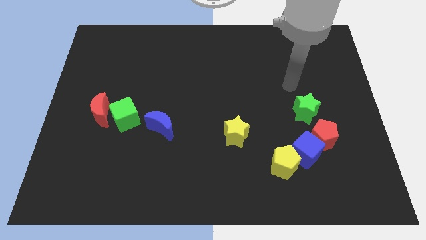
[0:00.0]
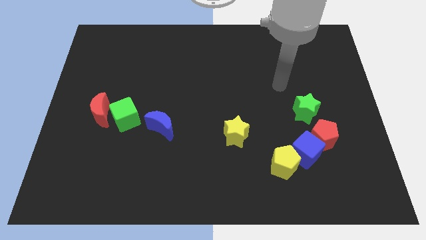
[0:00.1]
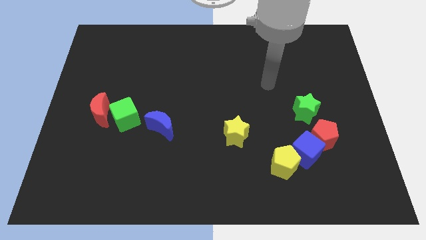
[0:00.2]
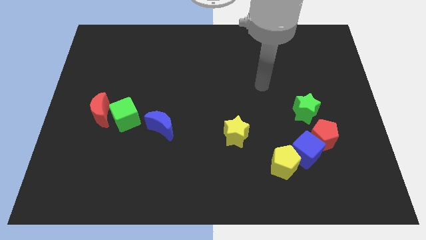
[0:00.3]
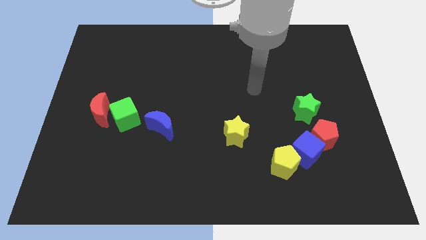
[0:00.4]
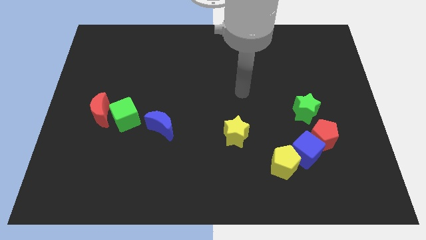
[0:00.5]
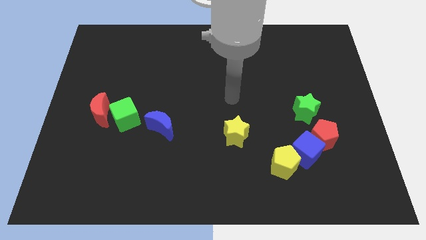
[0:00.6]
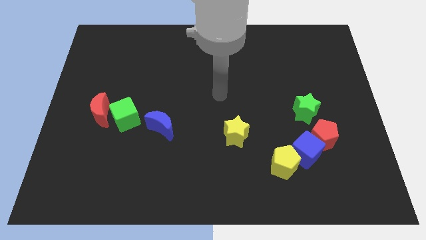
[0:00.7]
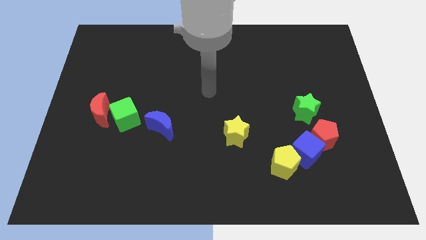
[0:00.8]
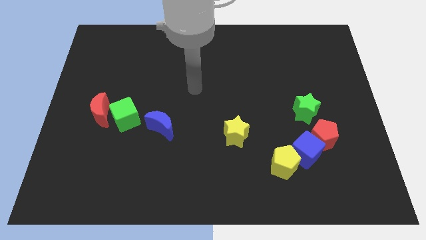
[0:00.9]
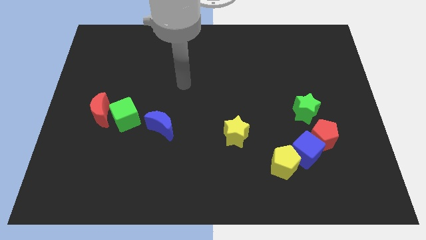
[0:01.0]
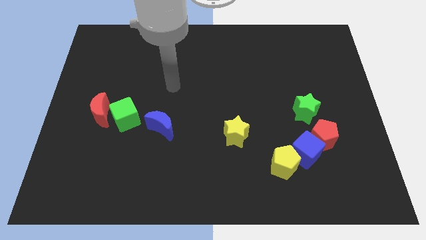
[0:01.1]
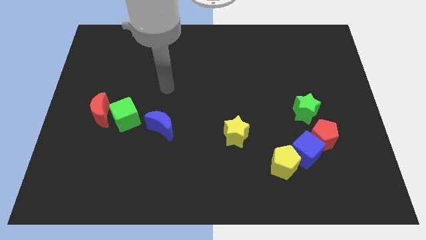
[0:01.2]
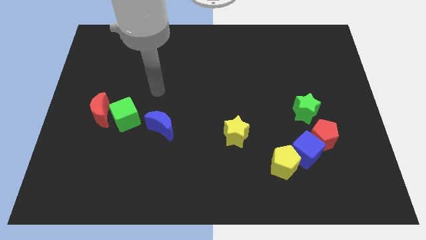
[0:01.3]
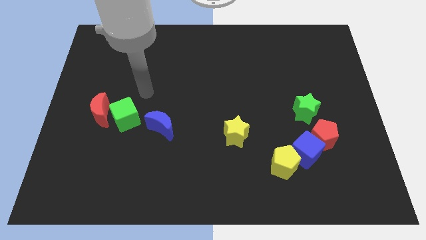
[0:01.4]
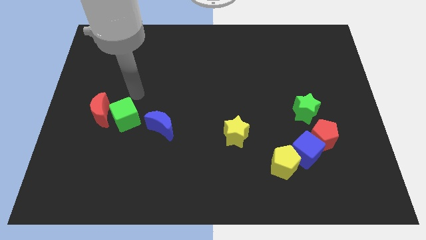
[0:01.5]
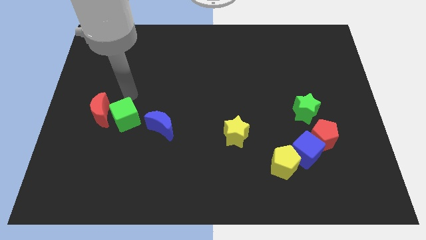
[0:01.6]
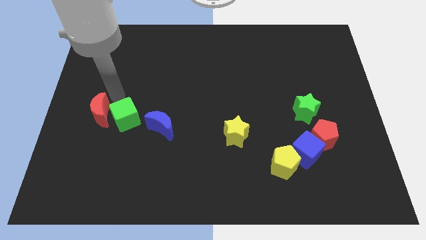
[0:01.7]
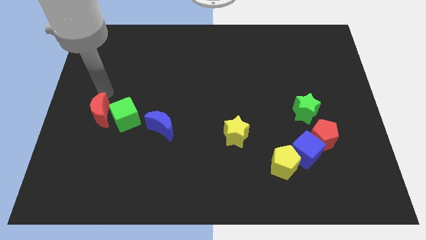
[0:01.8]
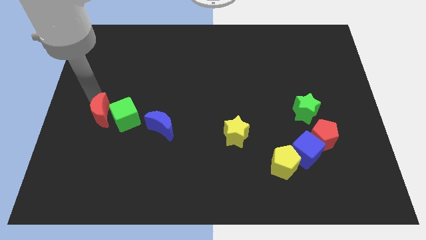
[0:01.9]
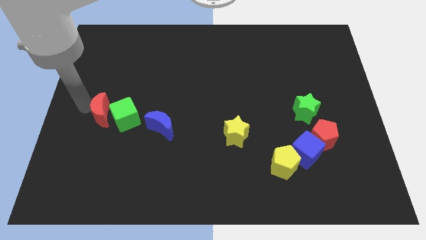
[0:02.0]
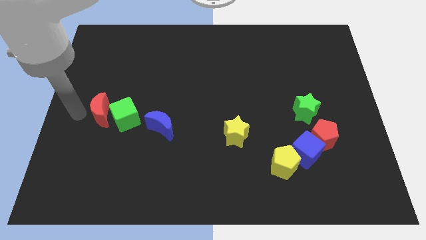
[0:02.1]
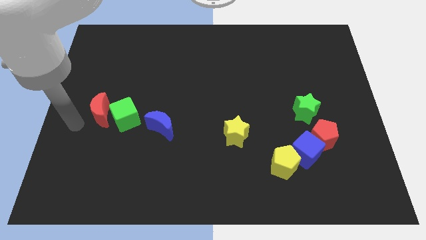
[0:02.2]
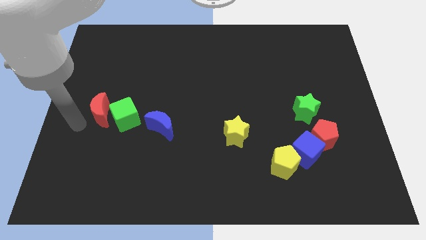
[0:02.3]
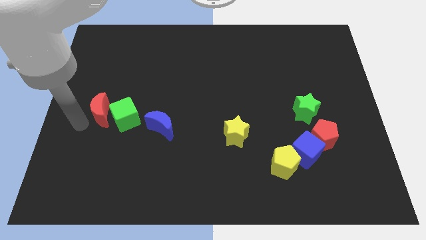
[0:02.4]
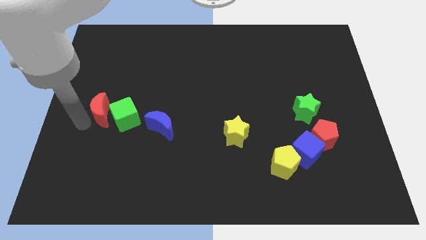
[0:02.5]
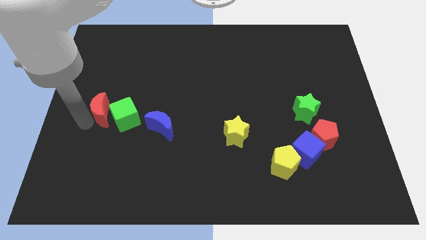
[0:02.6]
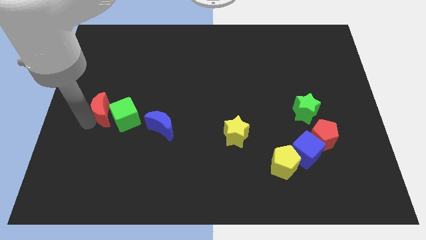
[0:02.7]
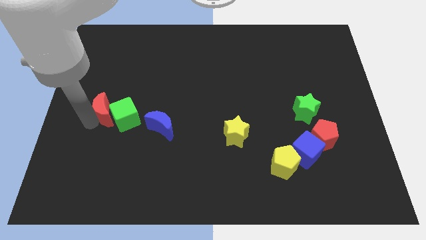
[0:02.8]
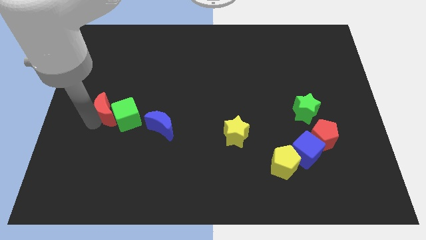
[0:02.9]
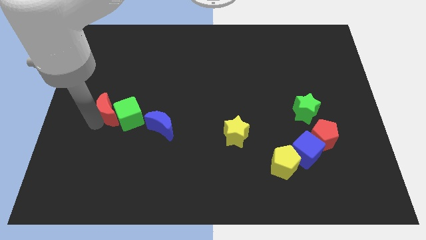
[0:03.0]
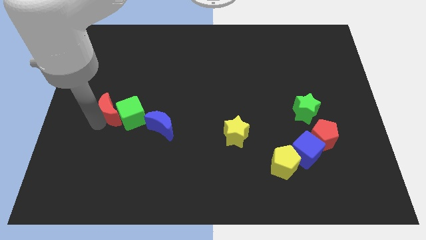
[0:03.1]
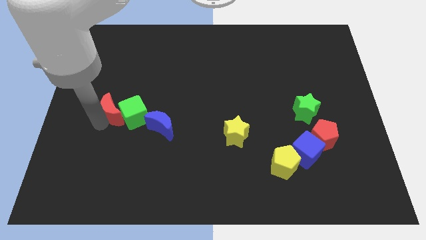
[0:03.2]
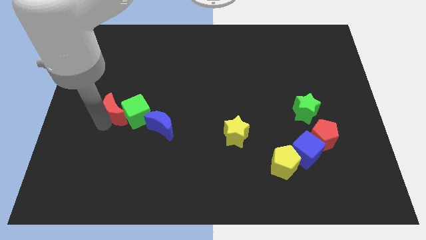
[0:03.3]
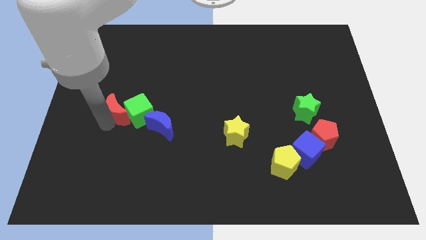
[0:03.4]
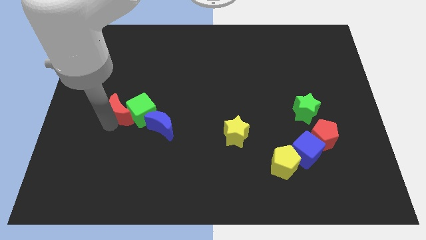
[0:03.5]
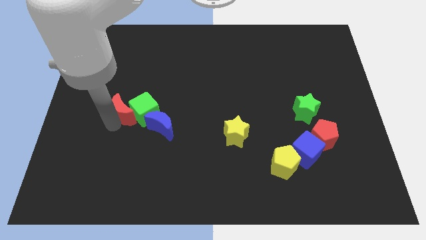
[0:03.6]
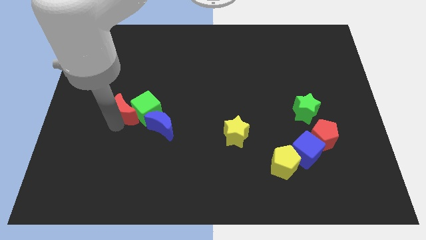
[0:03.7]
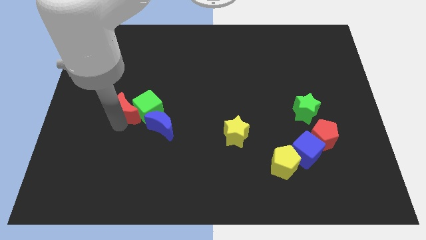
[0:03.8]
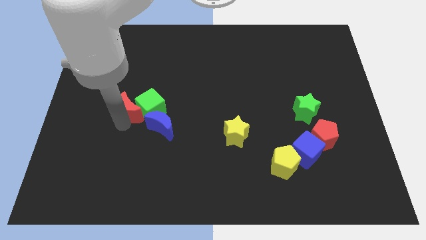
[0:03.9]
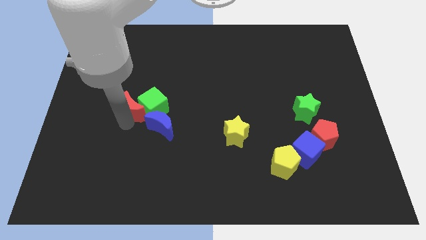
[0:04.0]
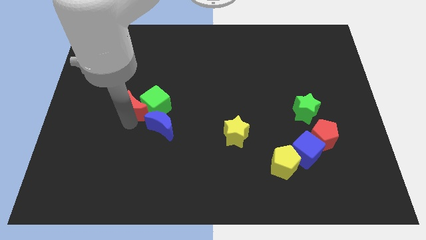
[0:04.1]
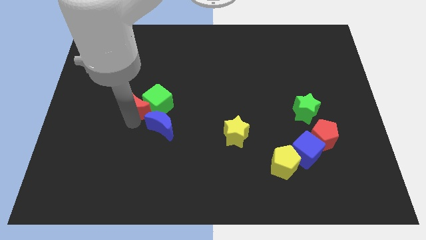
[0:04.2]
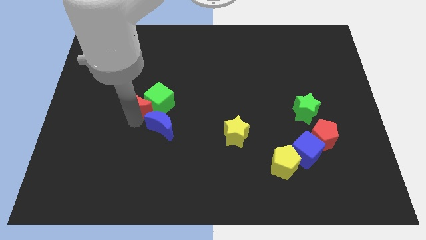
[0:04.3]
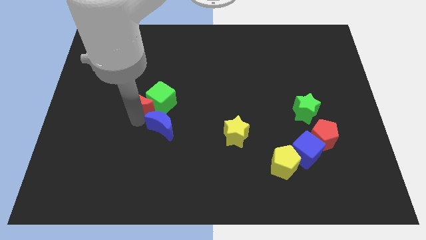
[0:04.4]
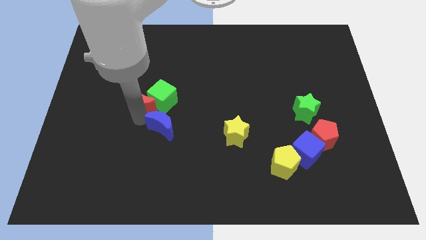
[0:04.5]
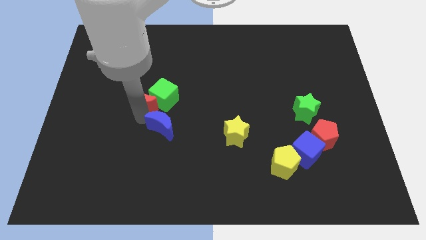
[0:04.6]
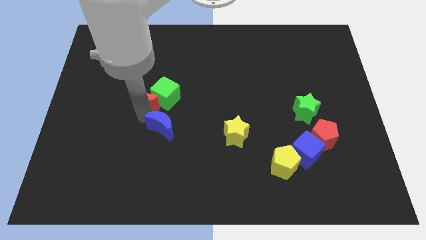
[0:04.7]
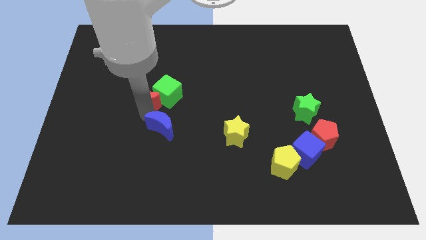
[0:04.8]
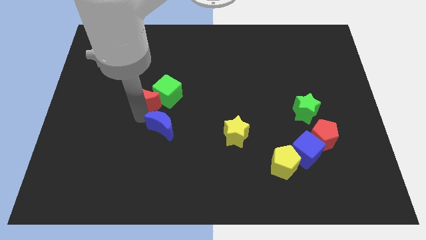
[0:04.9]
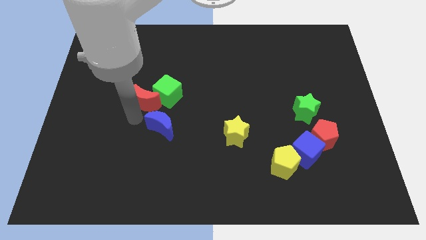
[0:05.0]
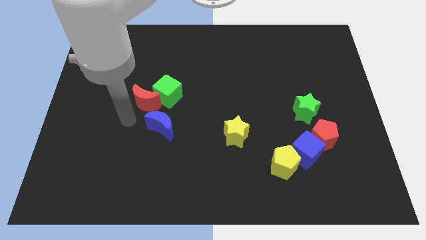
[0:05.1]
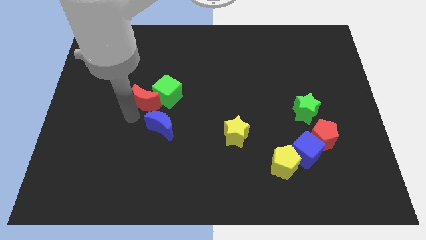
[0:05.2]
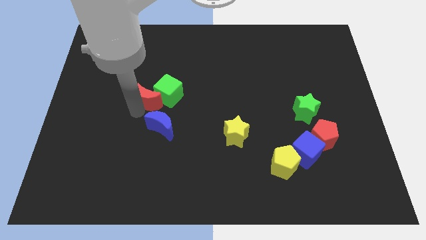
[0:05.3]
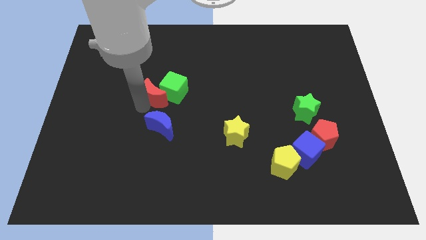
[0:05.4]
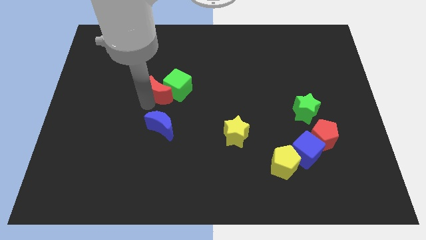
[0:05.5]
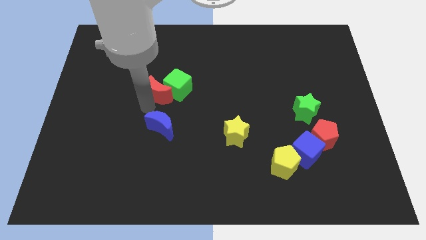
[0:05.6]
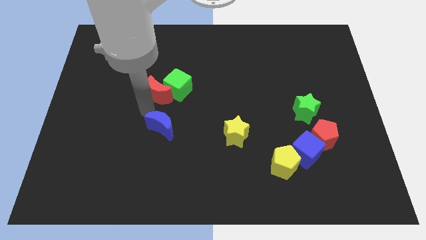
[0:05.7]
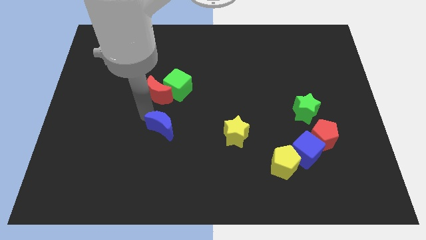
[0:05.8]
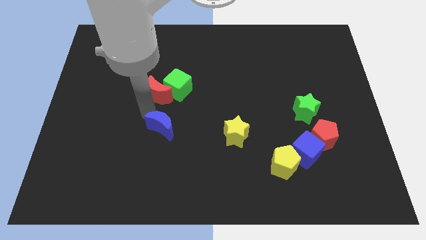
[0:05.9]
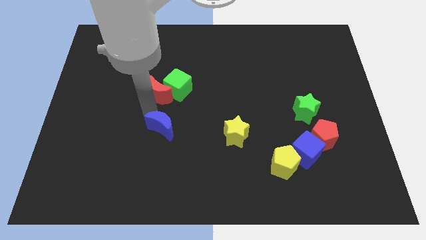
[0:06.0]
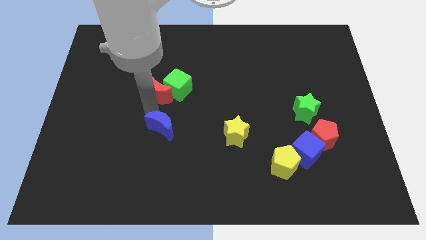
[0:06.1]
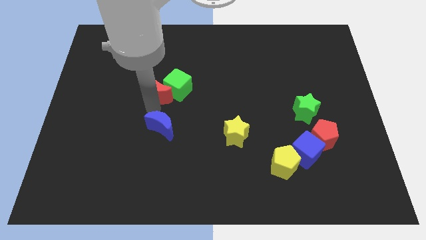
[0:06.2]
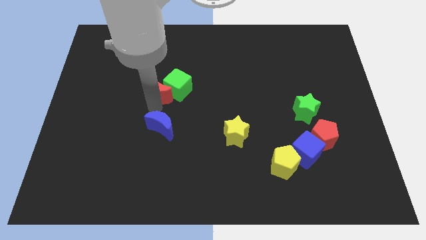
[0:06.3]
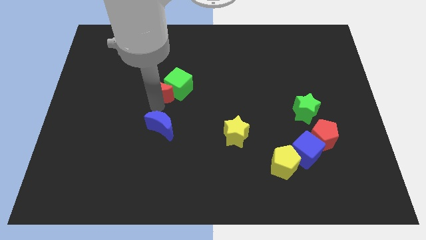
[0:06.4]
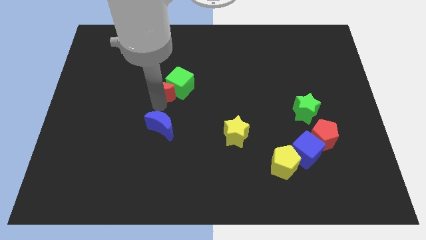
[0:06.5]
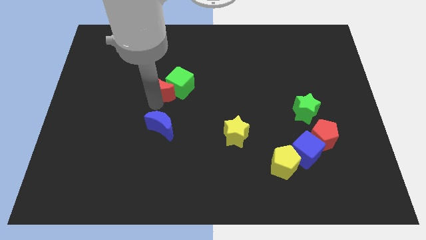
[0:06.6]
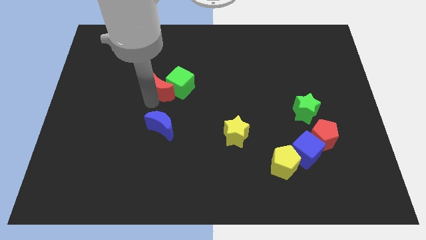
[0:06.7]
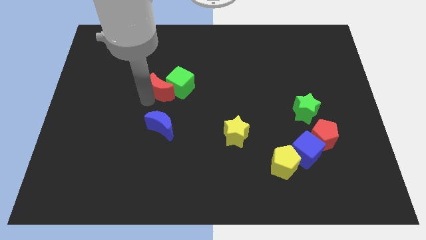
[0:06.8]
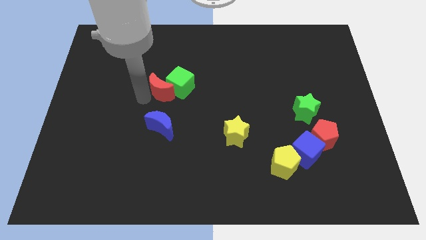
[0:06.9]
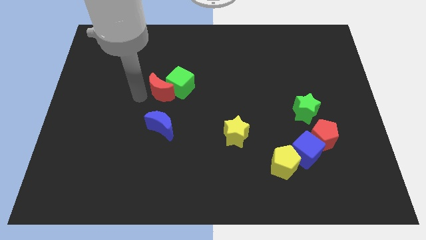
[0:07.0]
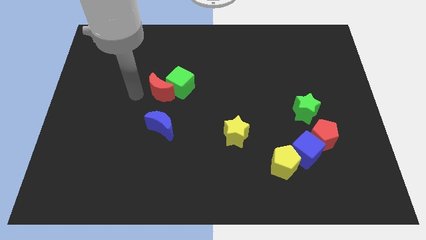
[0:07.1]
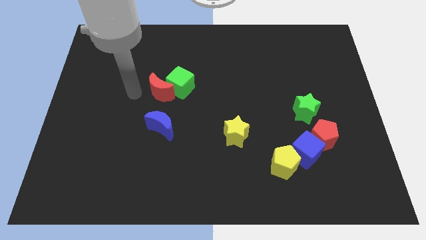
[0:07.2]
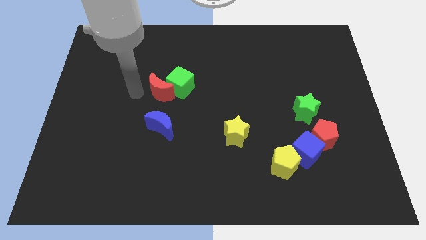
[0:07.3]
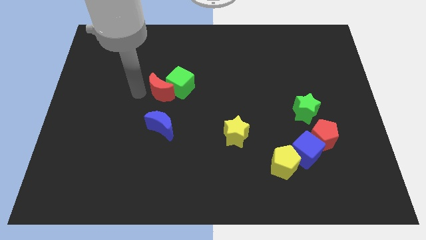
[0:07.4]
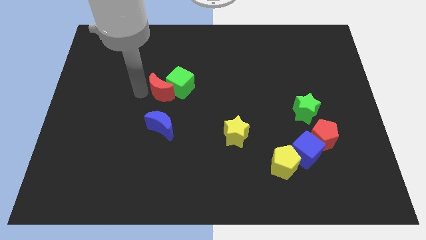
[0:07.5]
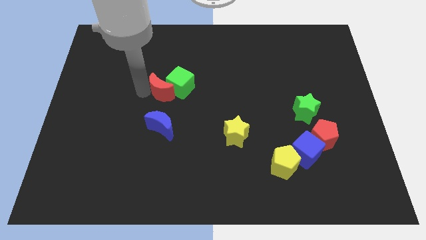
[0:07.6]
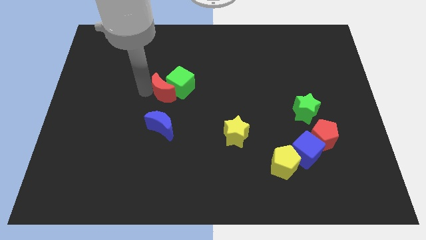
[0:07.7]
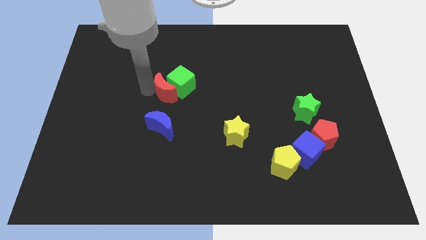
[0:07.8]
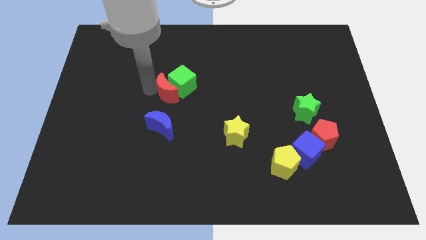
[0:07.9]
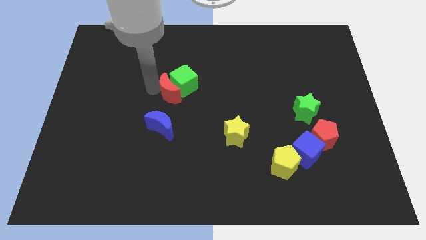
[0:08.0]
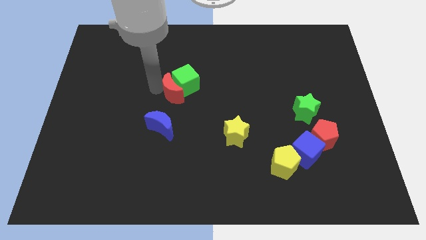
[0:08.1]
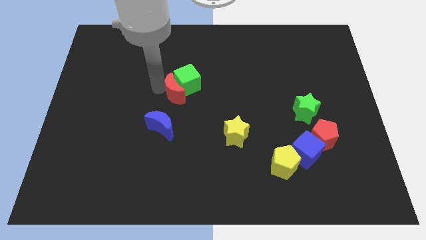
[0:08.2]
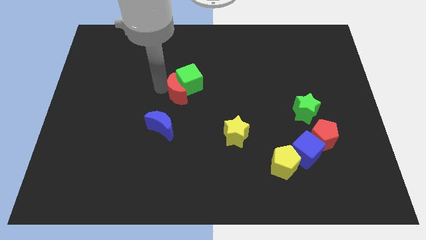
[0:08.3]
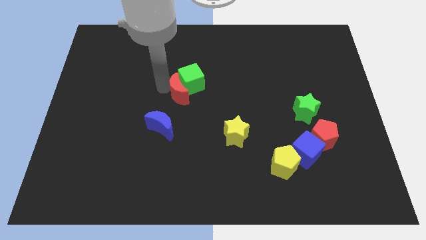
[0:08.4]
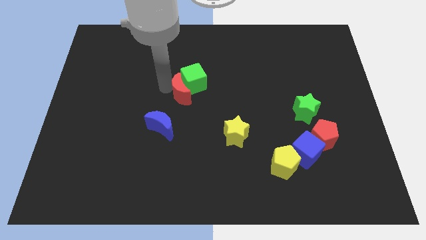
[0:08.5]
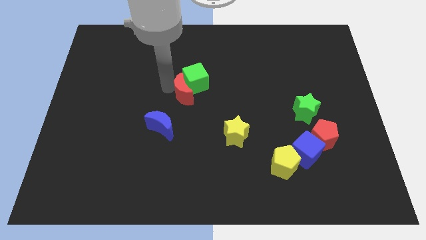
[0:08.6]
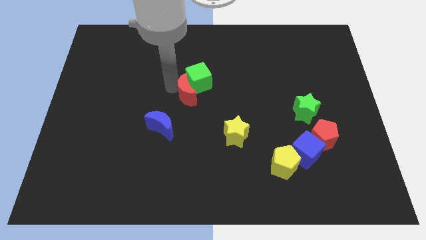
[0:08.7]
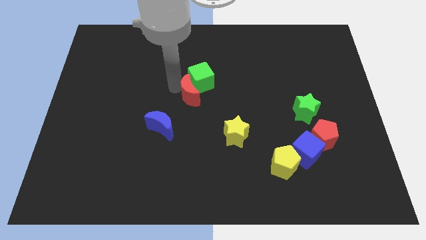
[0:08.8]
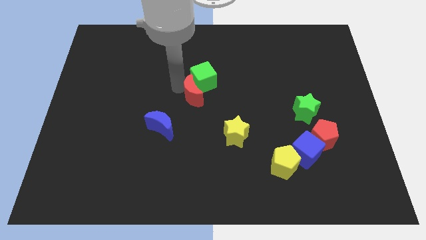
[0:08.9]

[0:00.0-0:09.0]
push the red moon right
